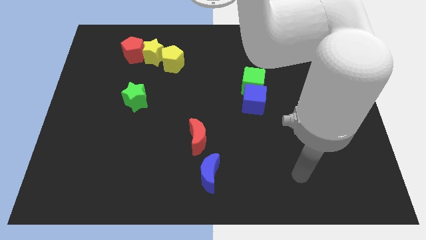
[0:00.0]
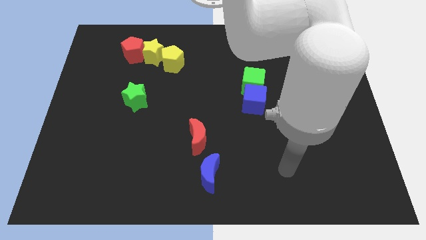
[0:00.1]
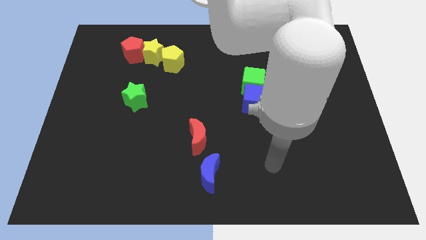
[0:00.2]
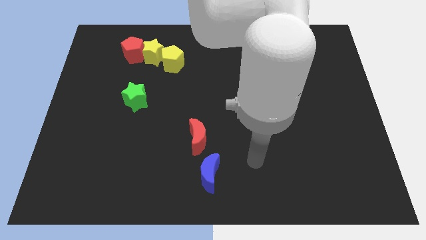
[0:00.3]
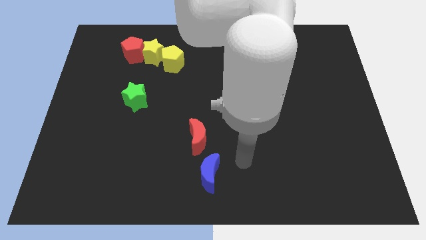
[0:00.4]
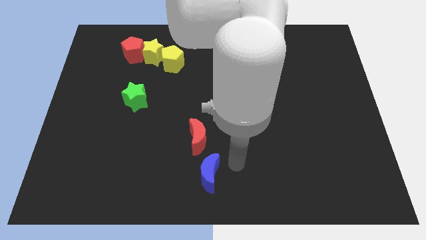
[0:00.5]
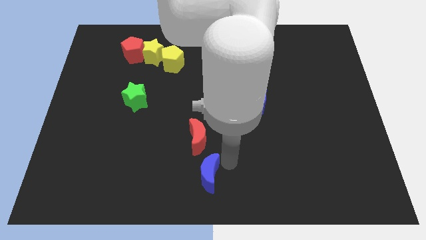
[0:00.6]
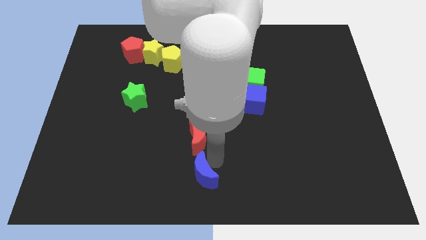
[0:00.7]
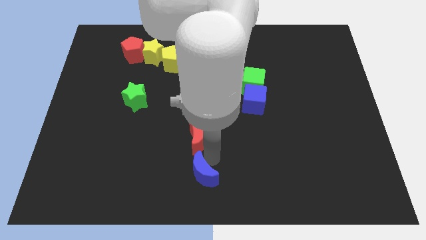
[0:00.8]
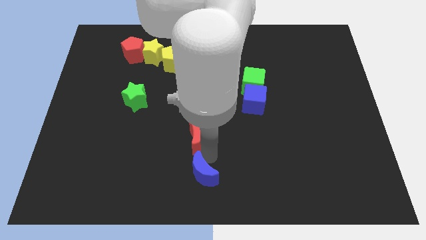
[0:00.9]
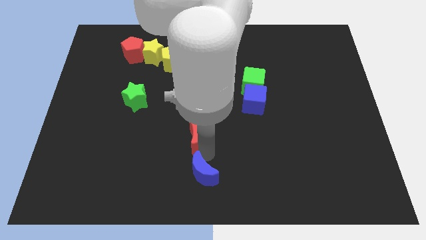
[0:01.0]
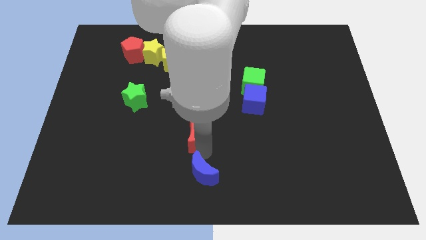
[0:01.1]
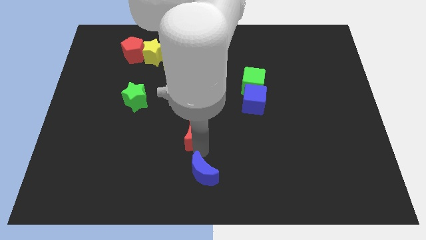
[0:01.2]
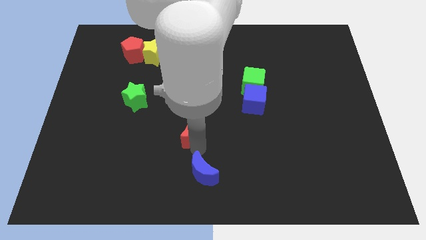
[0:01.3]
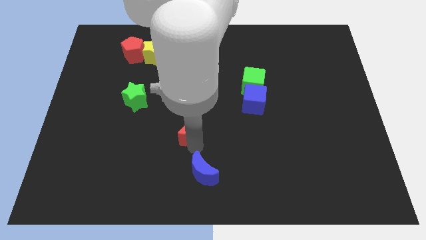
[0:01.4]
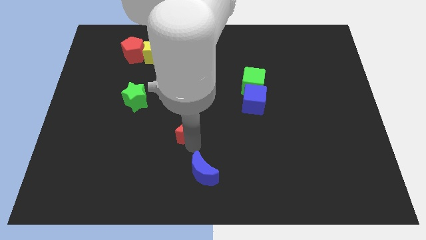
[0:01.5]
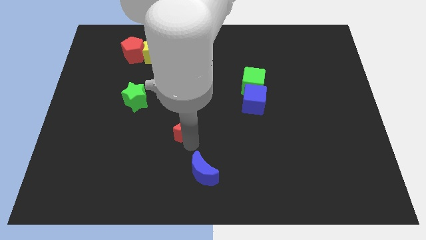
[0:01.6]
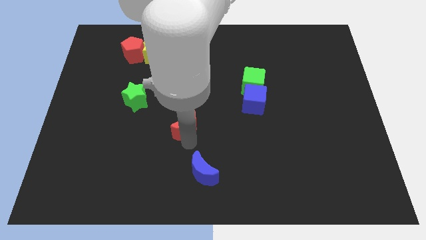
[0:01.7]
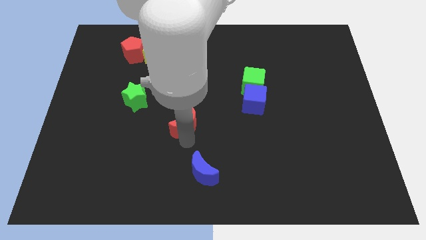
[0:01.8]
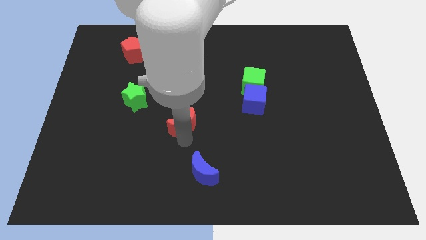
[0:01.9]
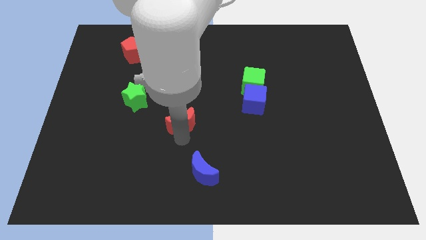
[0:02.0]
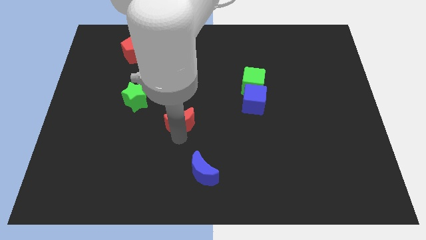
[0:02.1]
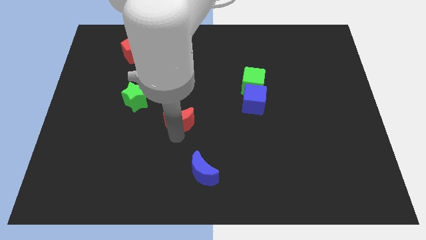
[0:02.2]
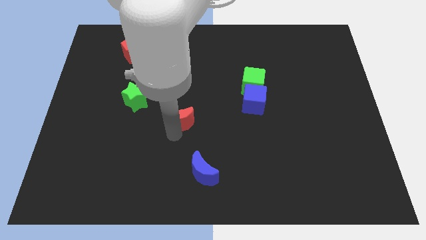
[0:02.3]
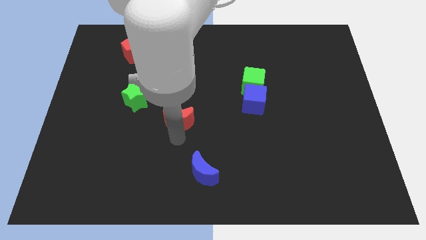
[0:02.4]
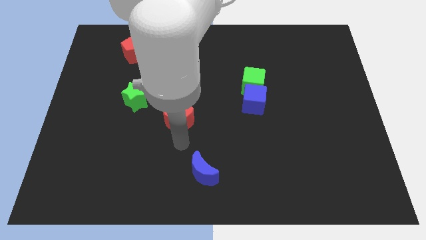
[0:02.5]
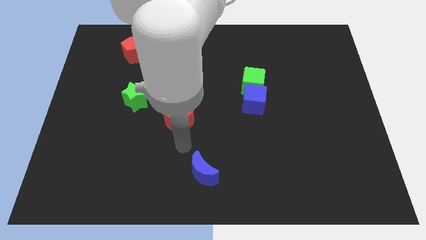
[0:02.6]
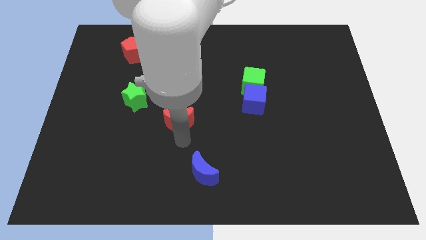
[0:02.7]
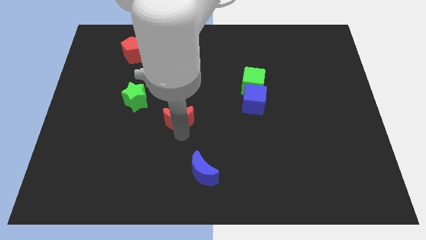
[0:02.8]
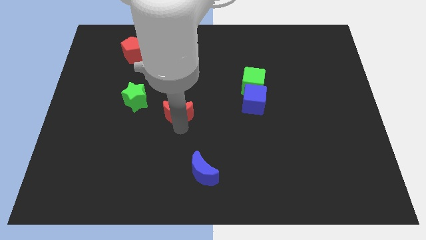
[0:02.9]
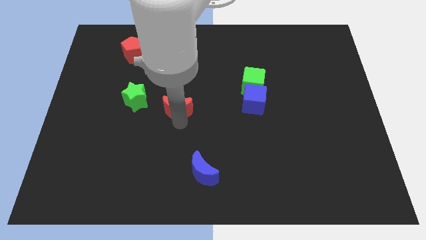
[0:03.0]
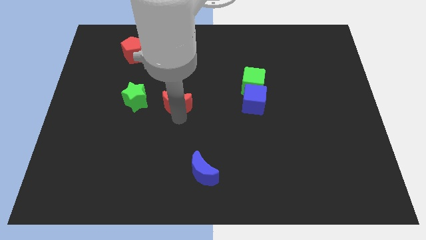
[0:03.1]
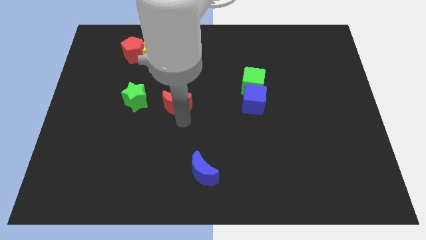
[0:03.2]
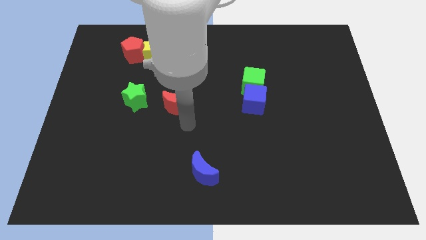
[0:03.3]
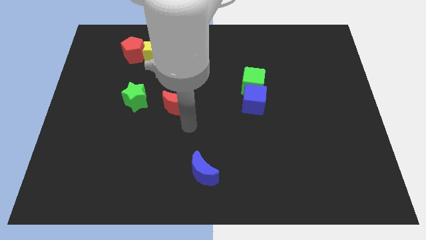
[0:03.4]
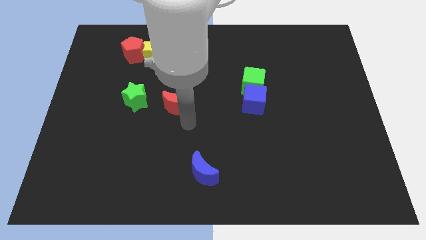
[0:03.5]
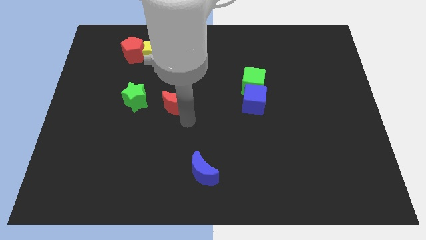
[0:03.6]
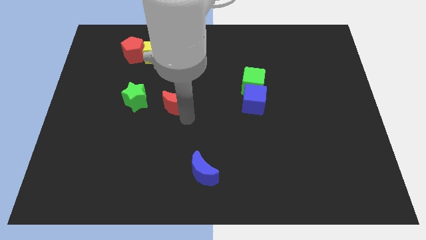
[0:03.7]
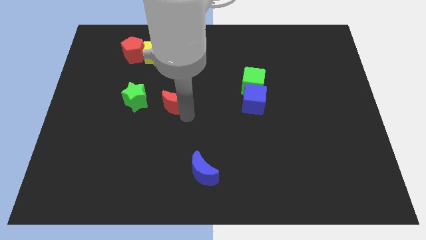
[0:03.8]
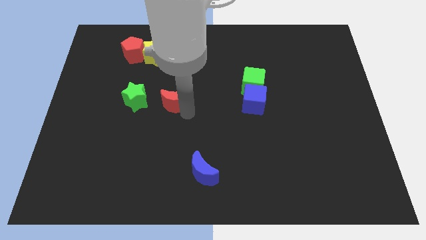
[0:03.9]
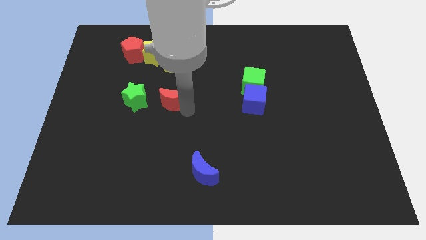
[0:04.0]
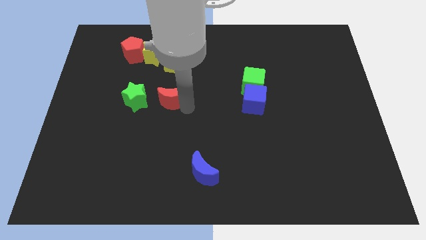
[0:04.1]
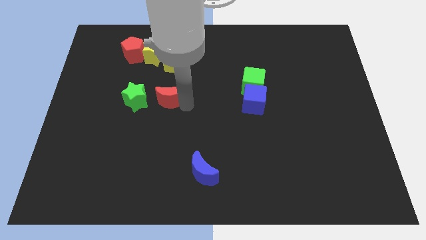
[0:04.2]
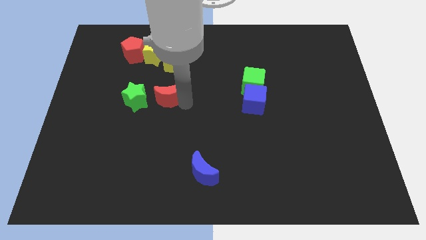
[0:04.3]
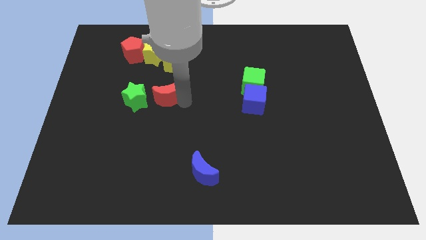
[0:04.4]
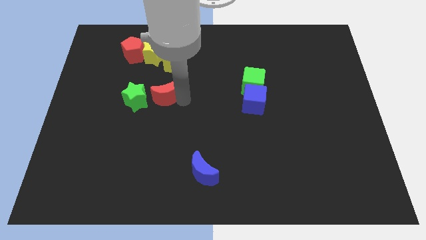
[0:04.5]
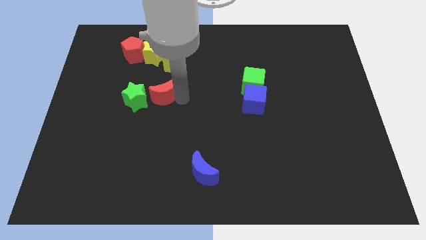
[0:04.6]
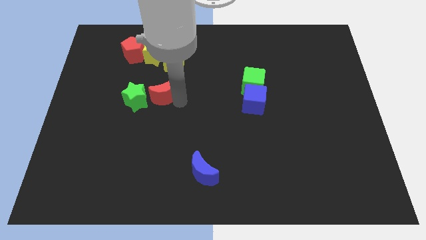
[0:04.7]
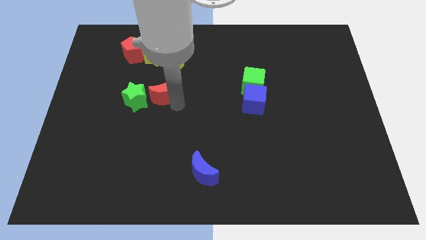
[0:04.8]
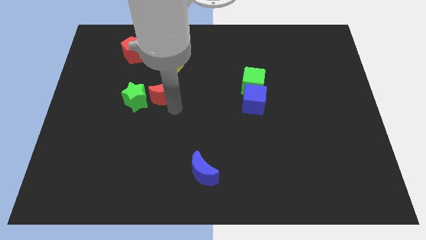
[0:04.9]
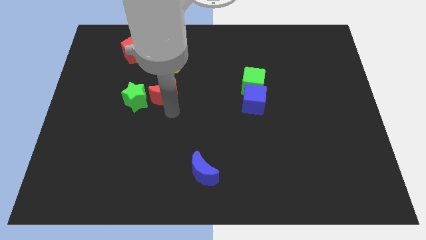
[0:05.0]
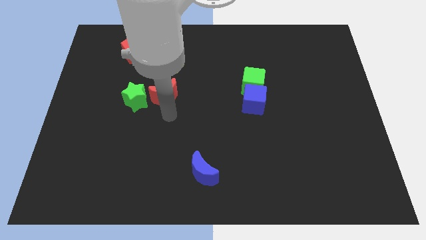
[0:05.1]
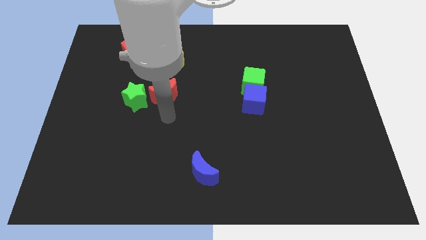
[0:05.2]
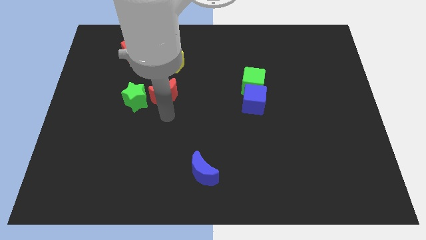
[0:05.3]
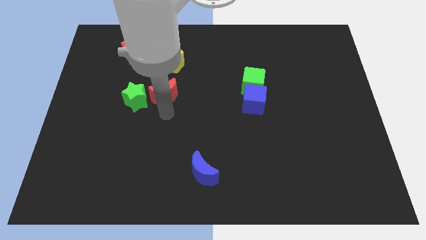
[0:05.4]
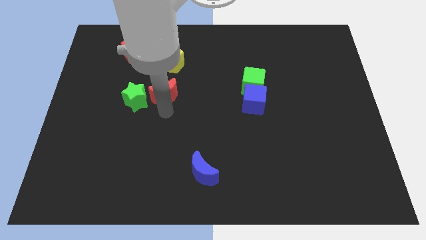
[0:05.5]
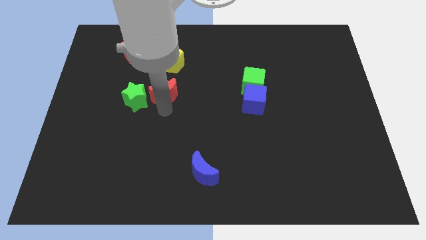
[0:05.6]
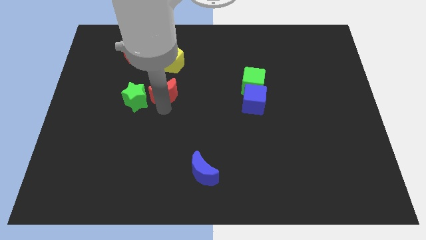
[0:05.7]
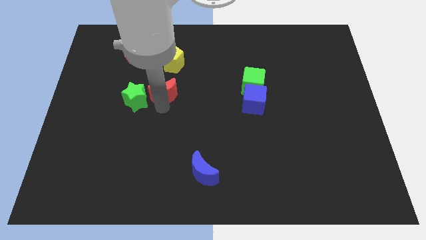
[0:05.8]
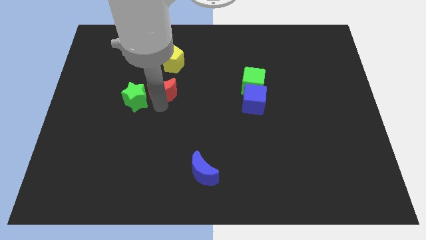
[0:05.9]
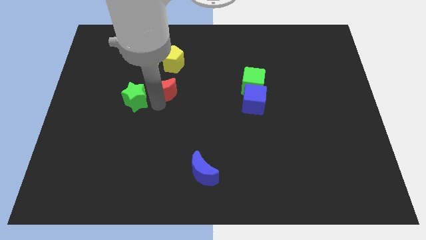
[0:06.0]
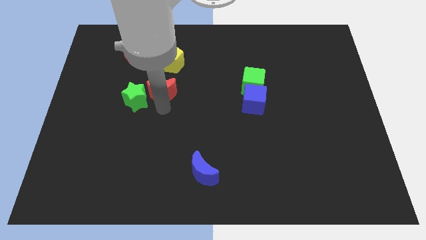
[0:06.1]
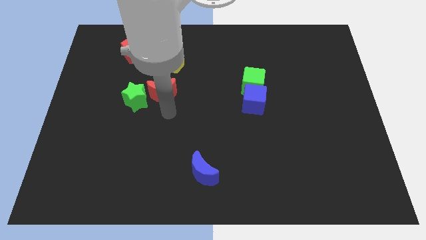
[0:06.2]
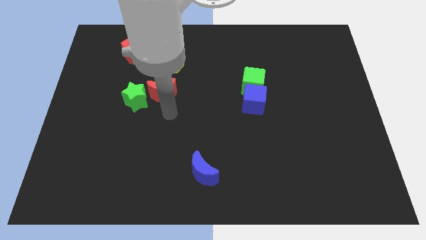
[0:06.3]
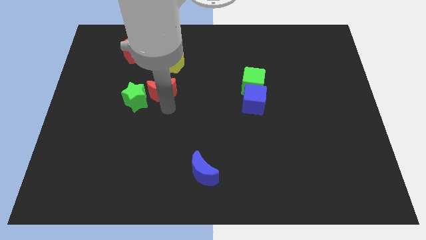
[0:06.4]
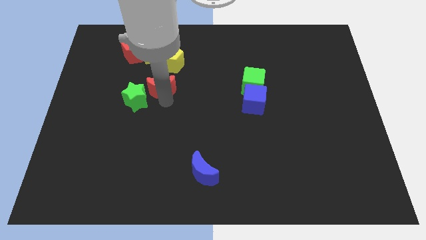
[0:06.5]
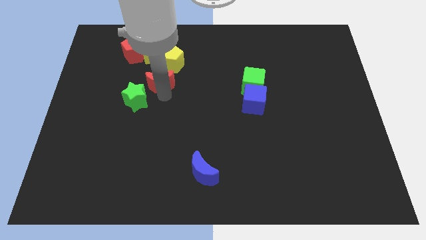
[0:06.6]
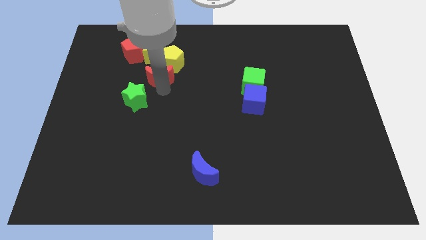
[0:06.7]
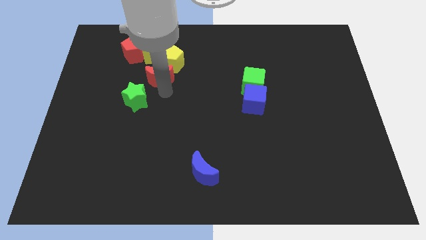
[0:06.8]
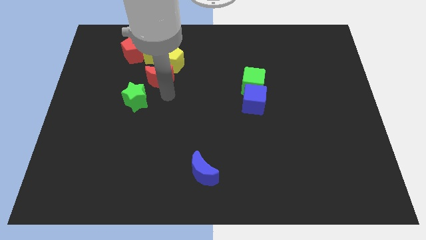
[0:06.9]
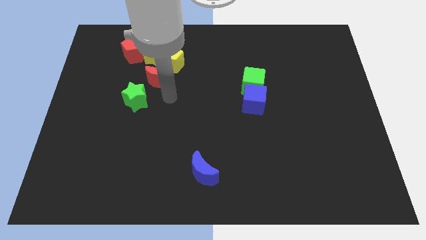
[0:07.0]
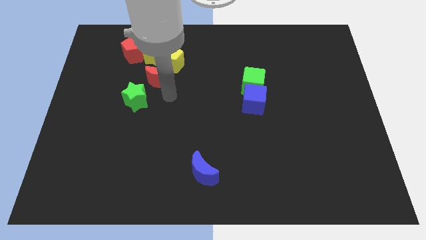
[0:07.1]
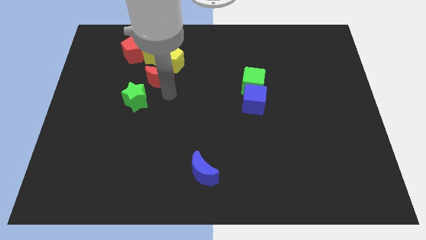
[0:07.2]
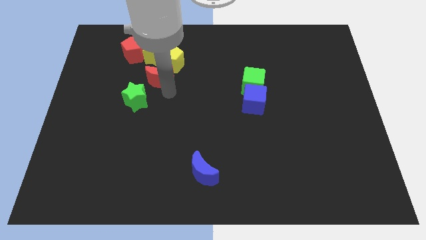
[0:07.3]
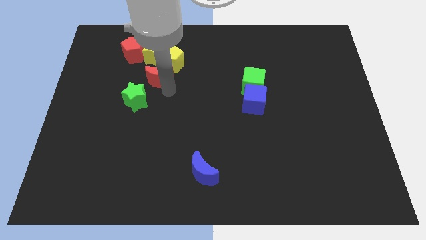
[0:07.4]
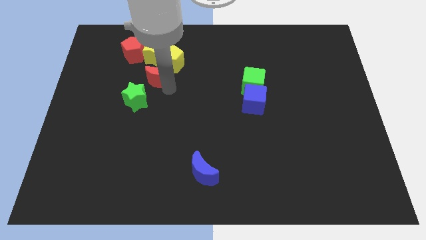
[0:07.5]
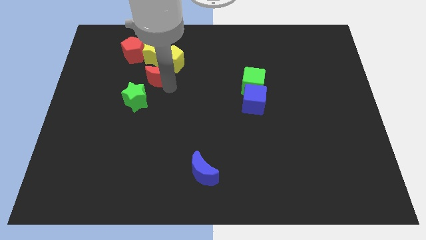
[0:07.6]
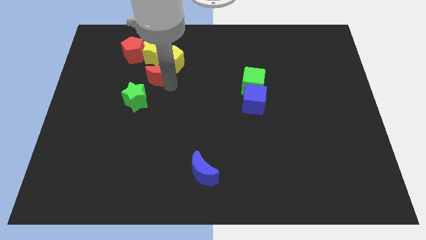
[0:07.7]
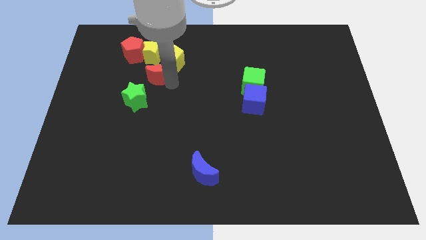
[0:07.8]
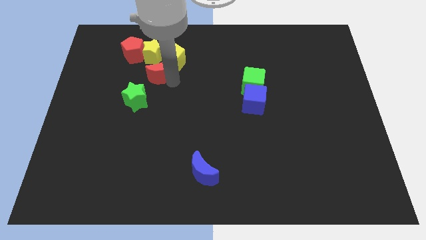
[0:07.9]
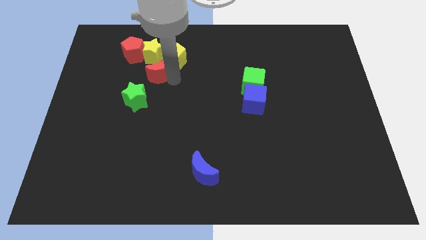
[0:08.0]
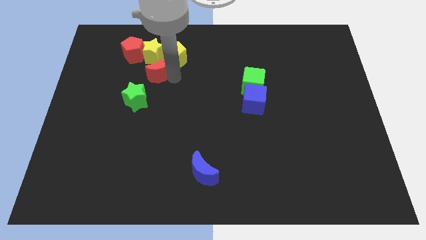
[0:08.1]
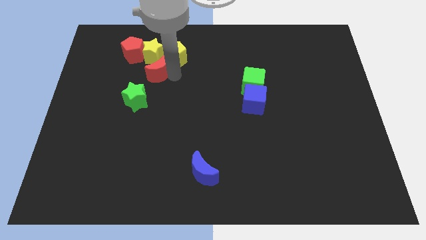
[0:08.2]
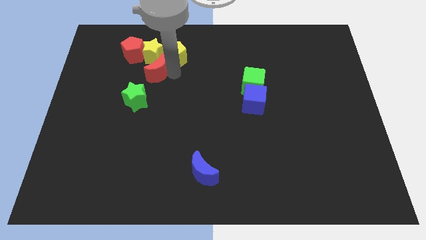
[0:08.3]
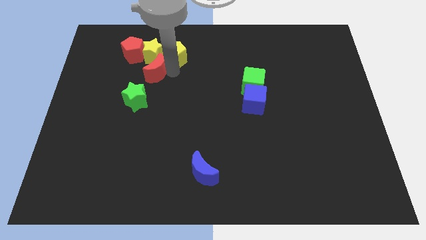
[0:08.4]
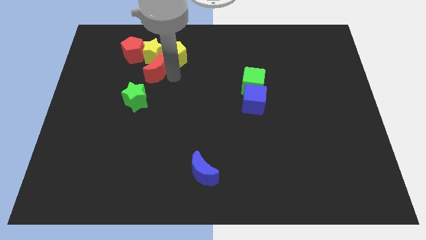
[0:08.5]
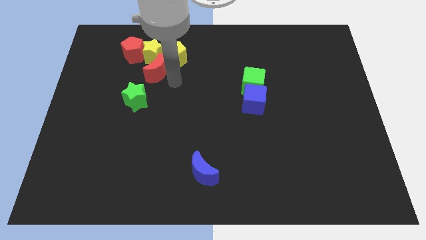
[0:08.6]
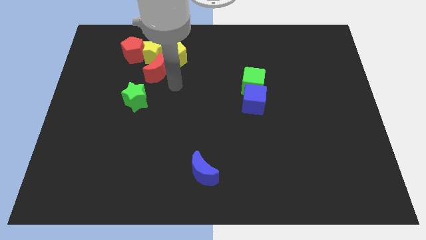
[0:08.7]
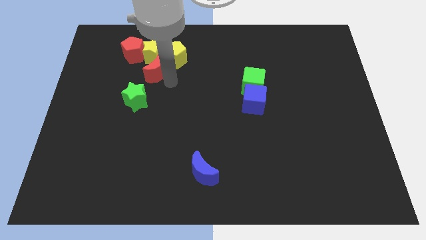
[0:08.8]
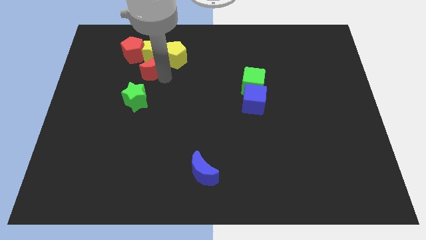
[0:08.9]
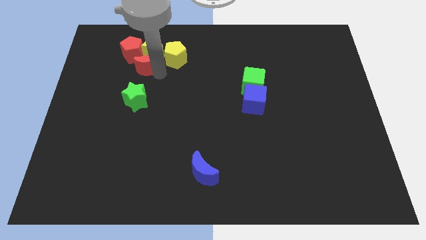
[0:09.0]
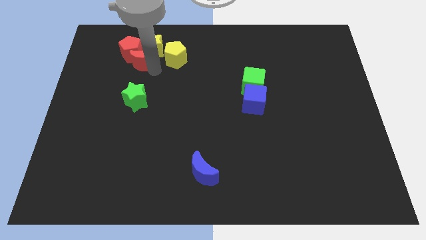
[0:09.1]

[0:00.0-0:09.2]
put the red moon close to the red pentagon
